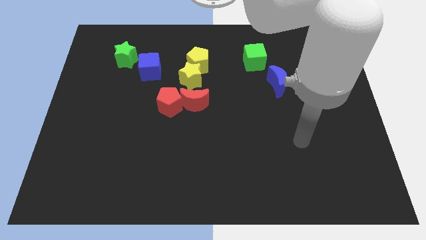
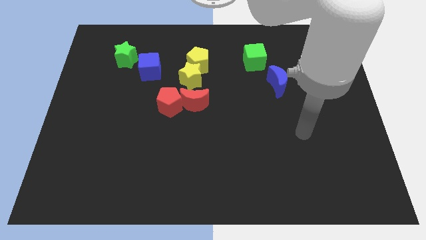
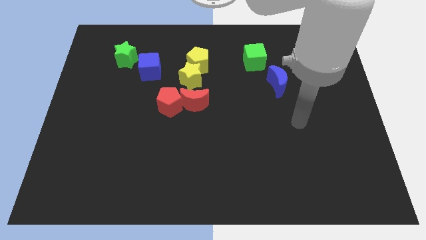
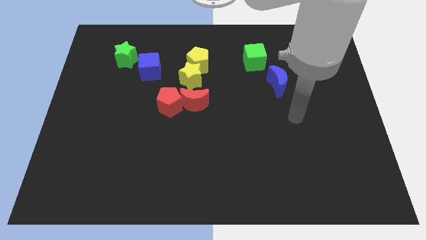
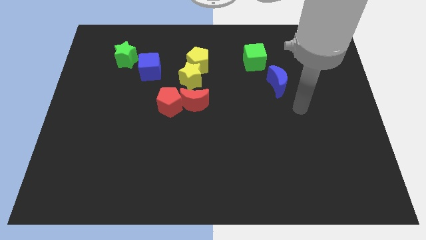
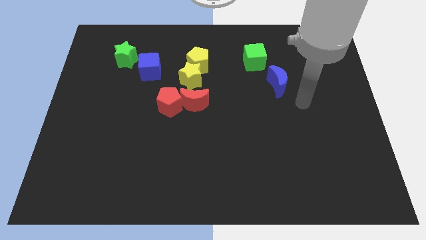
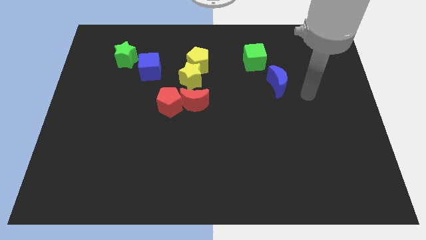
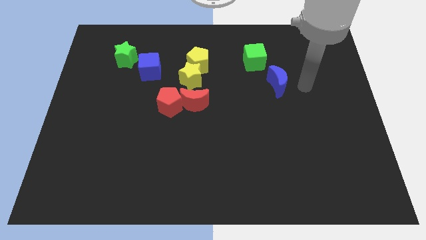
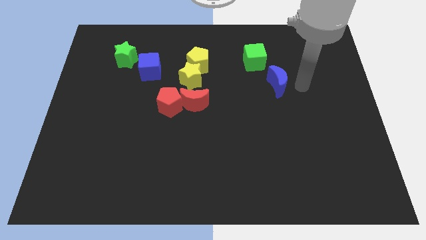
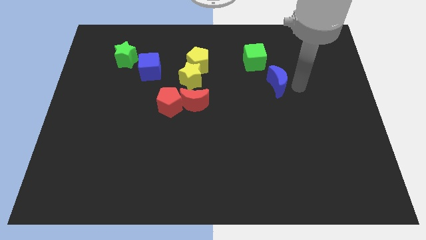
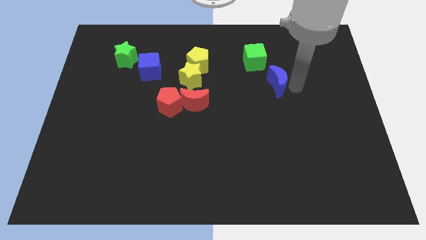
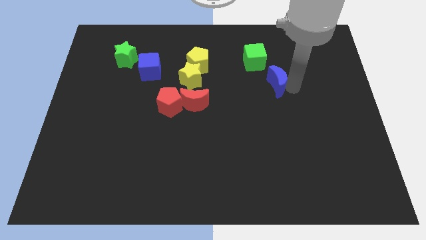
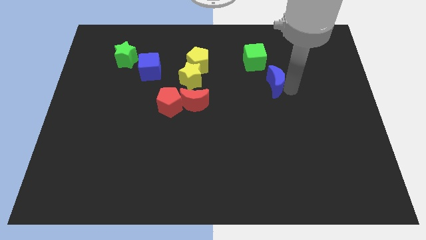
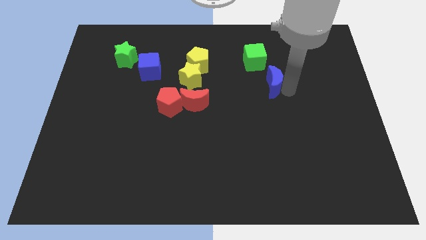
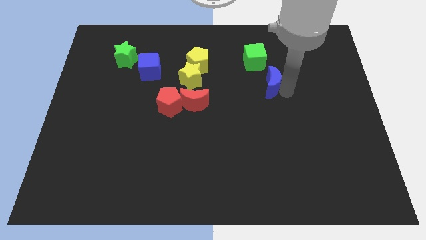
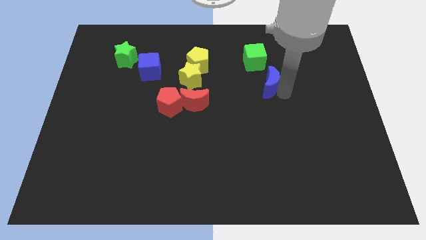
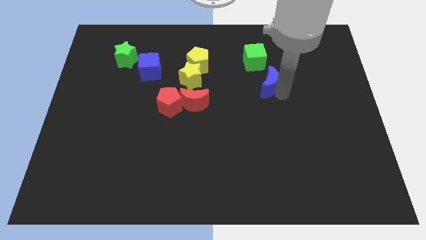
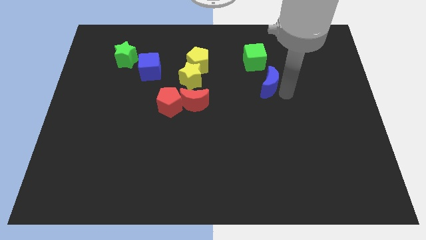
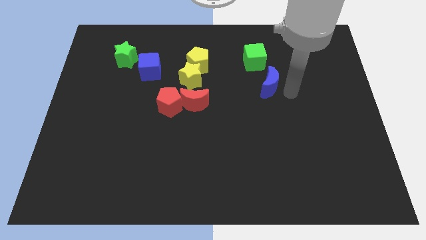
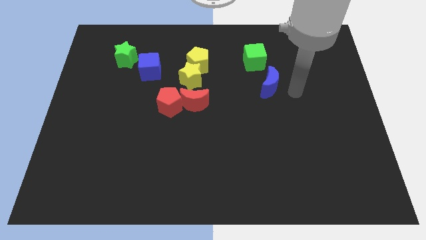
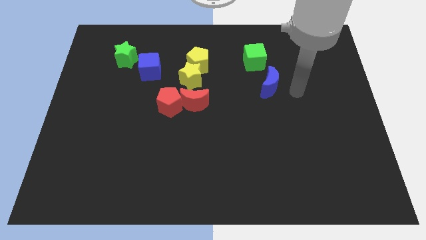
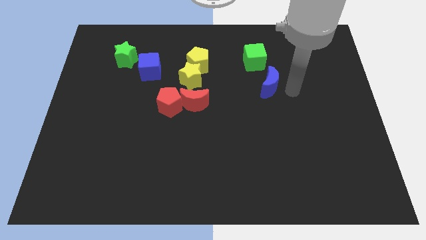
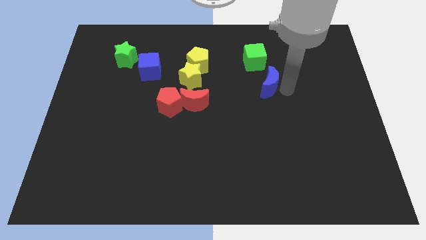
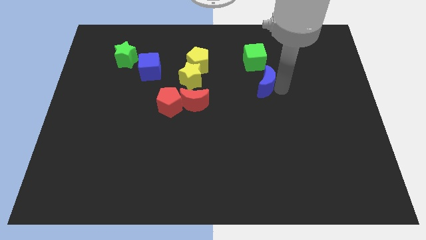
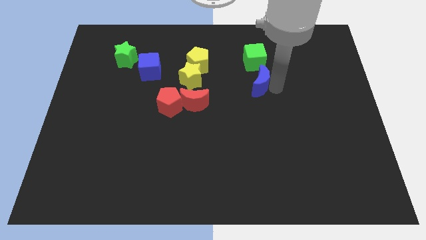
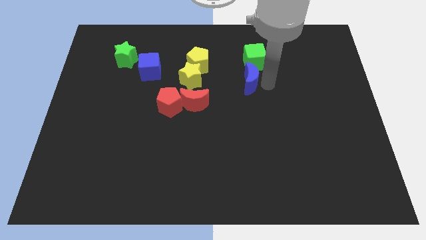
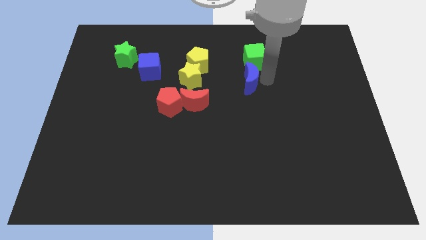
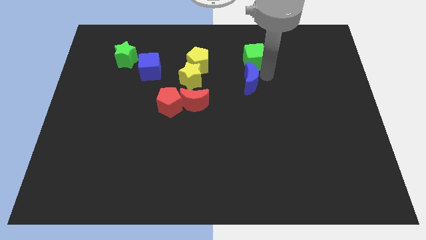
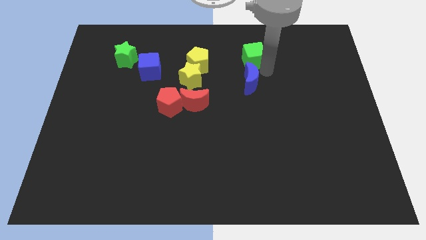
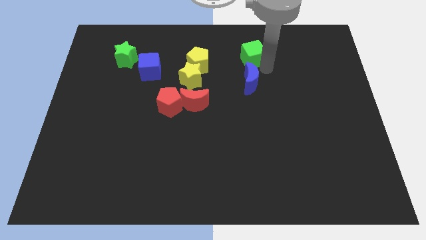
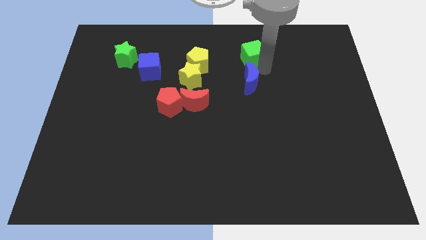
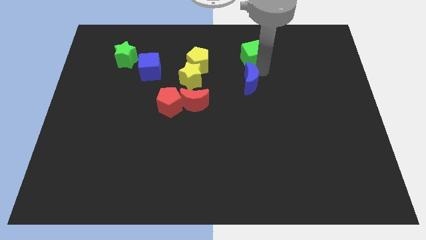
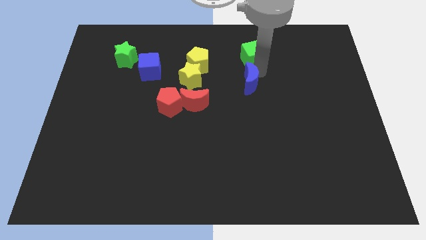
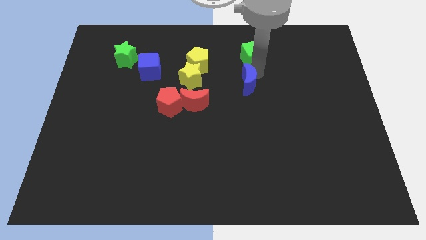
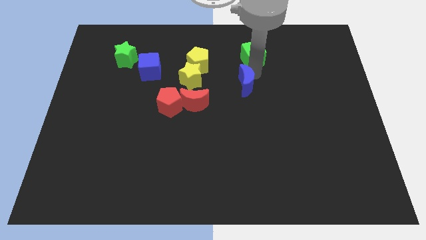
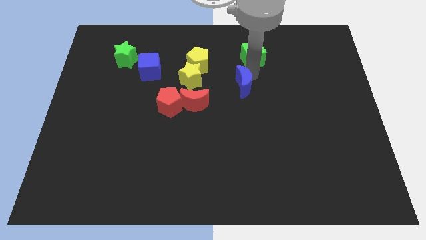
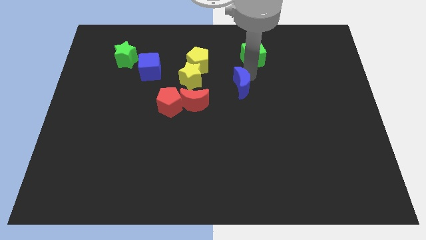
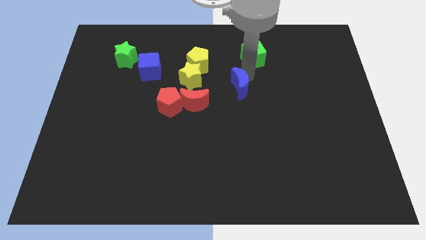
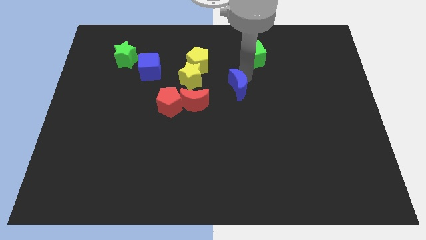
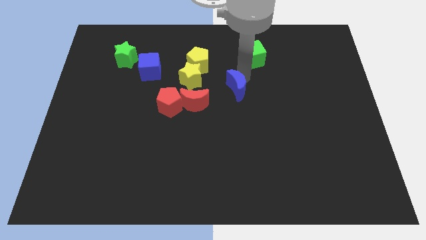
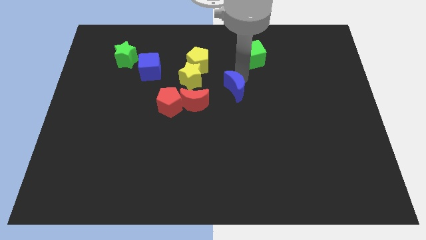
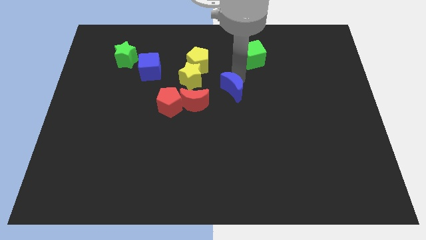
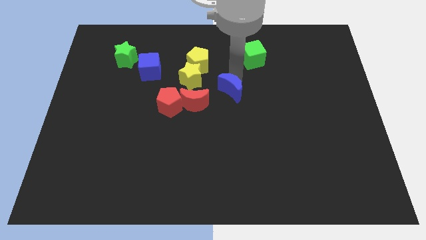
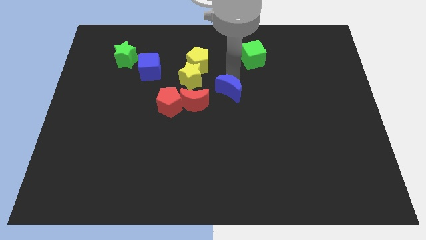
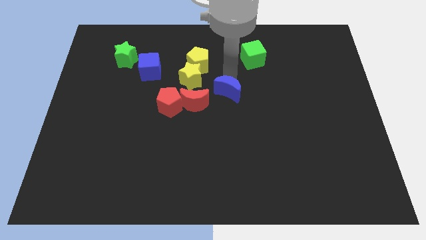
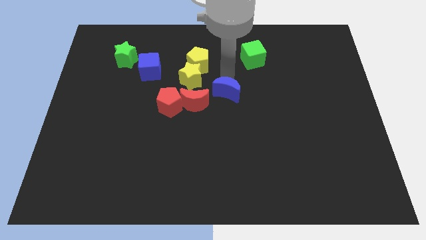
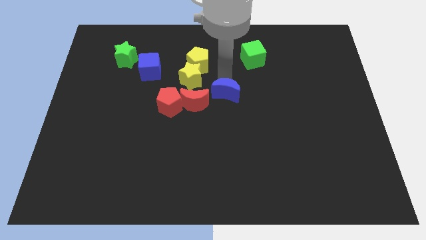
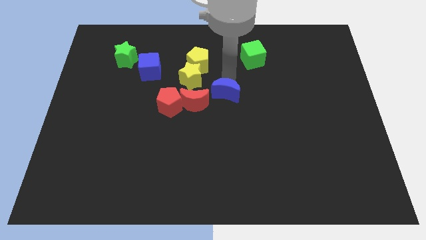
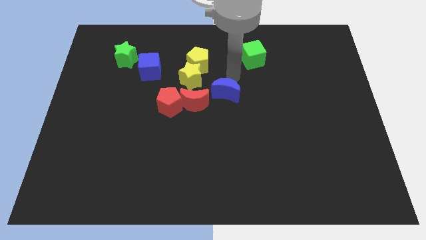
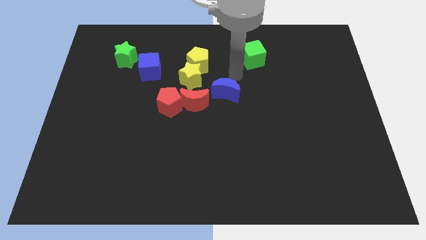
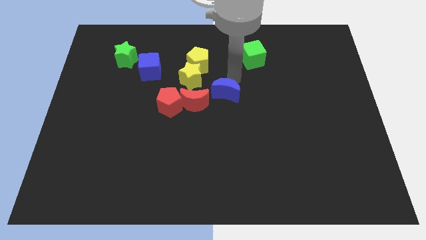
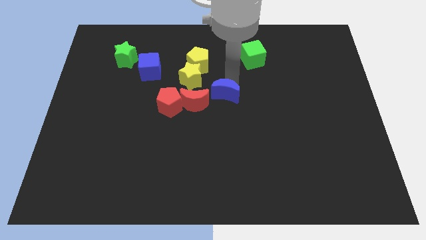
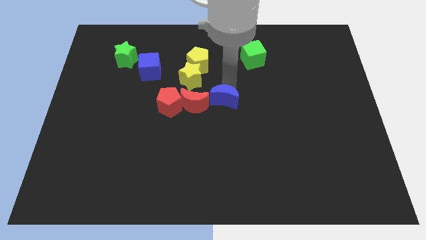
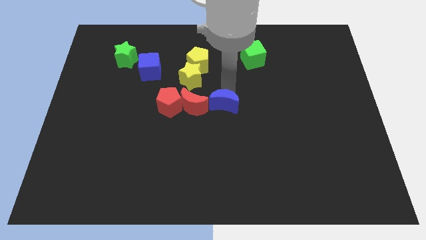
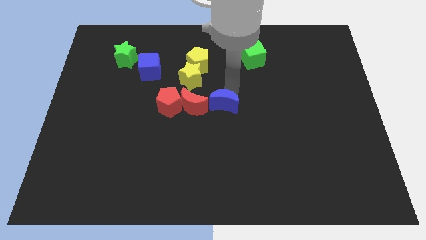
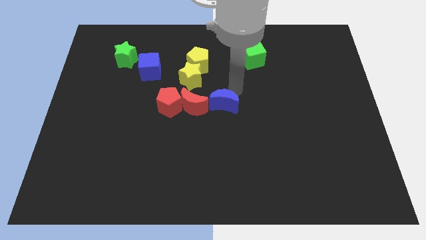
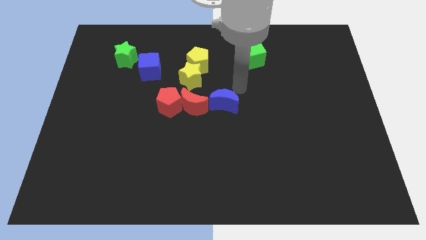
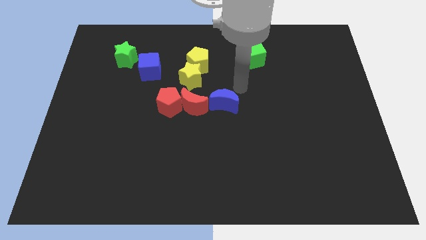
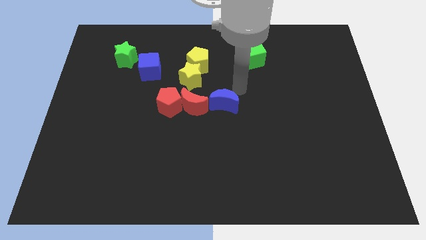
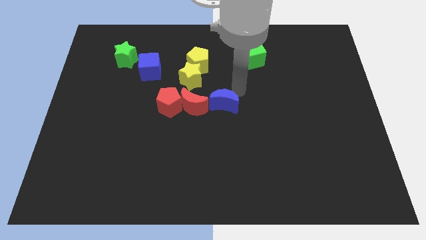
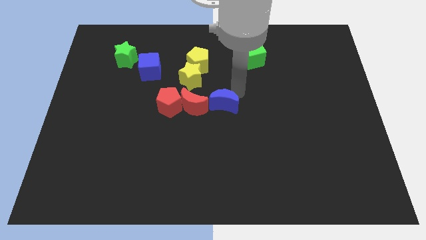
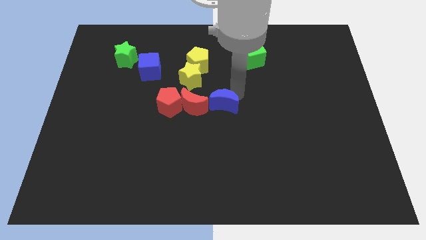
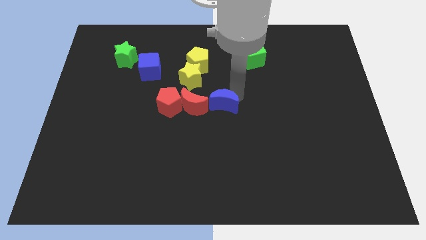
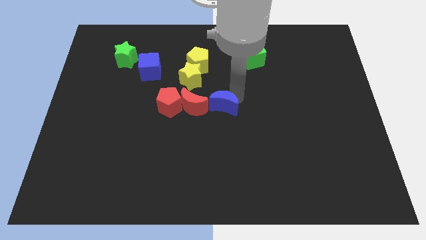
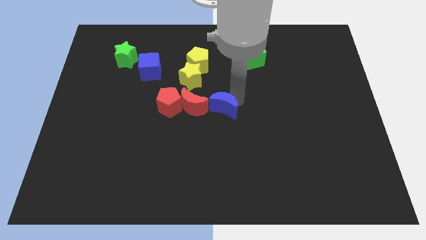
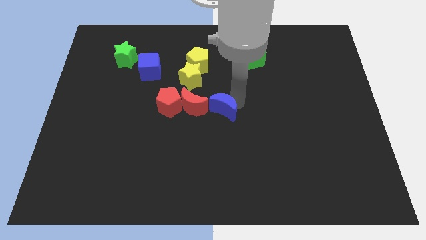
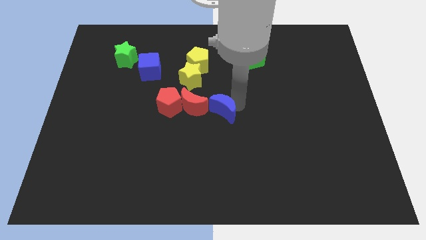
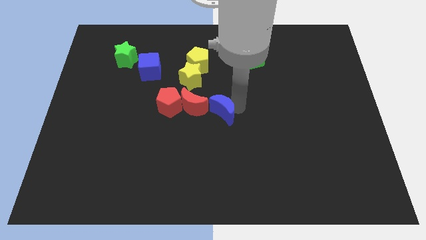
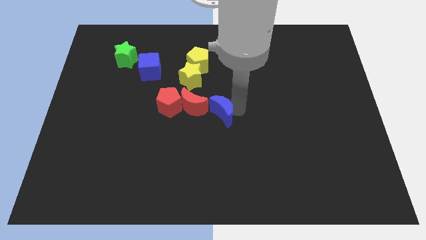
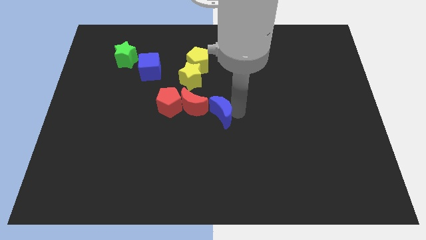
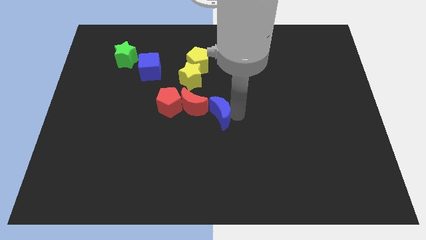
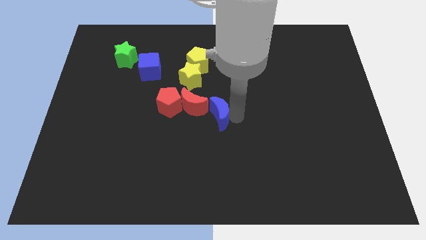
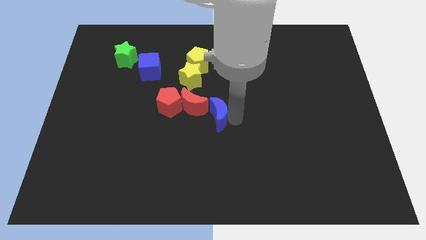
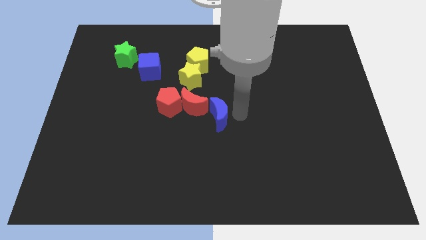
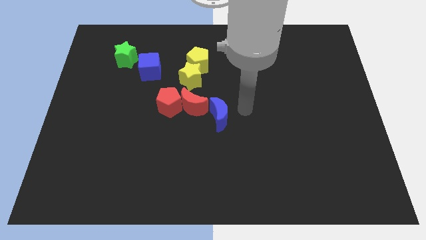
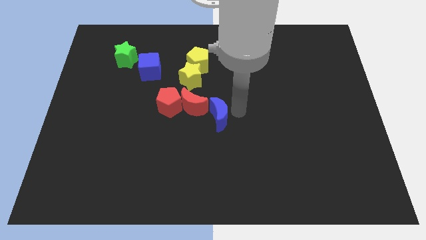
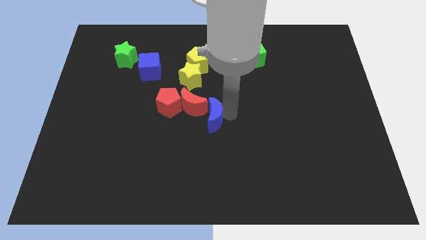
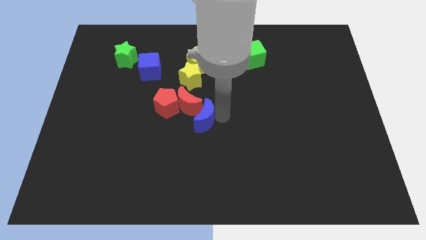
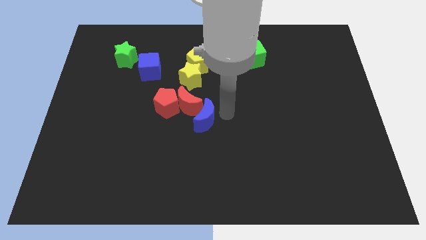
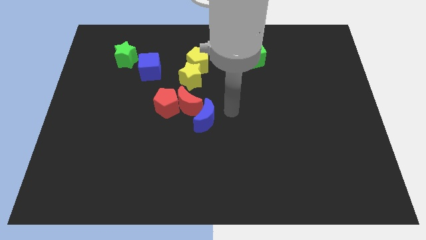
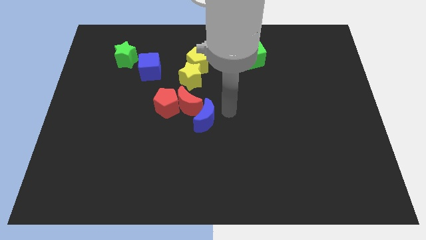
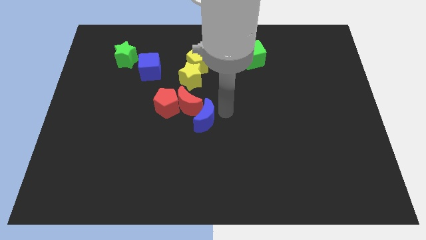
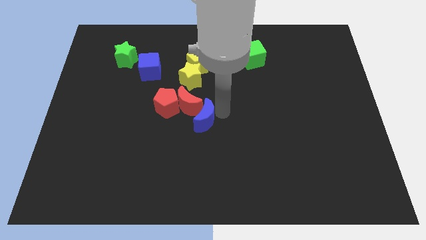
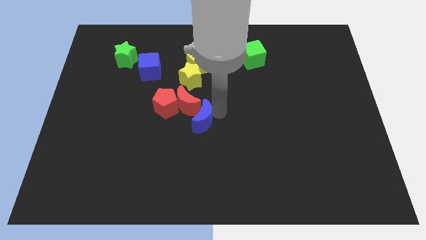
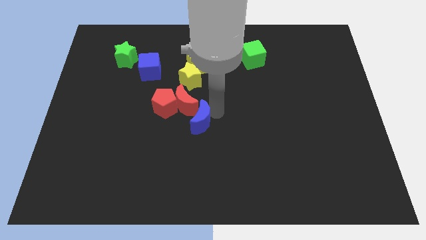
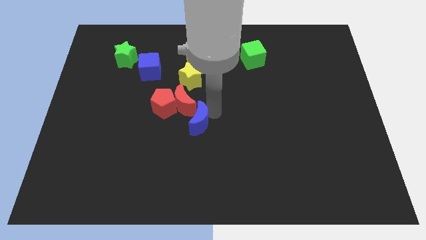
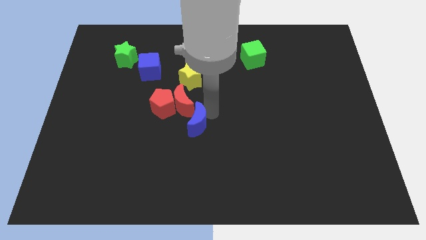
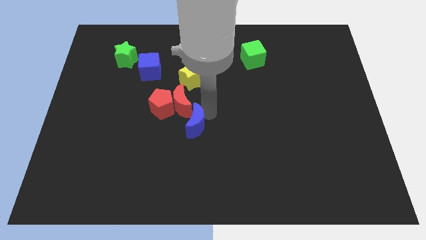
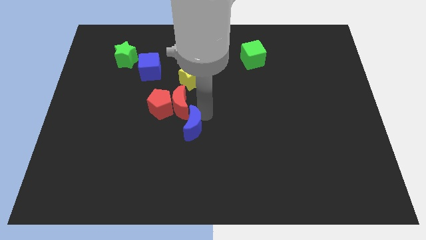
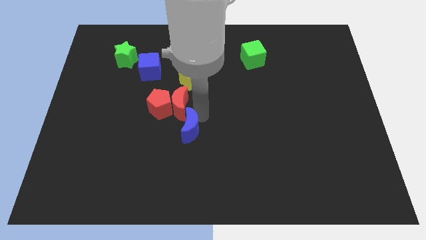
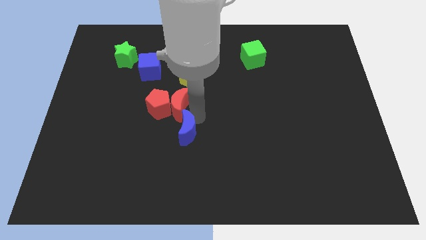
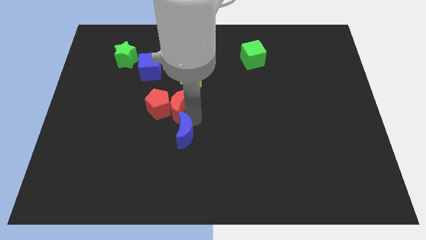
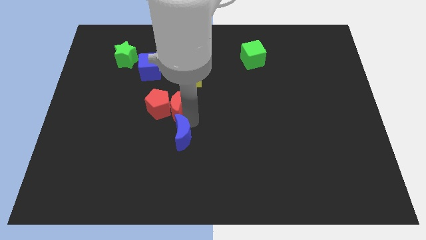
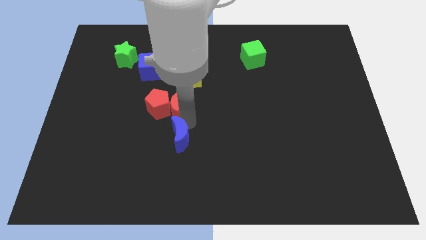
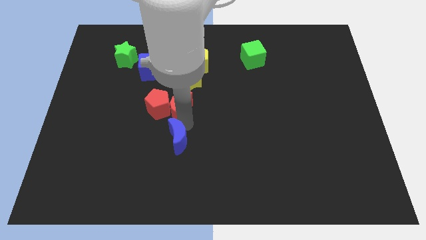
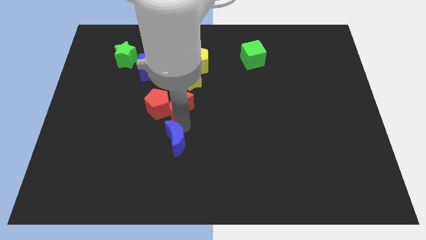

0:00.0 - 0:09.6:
push the blue moon to the bottom of the red pentagon
